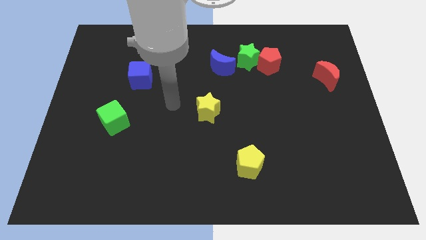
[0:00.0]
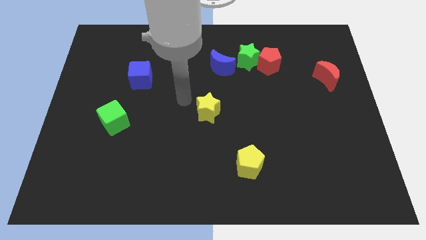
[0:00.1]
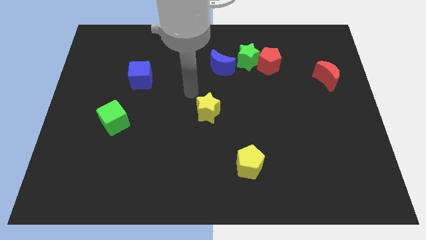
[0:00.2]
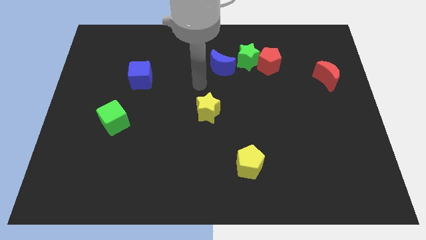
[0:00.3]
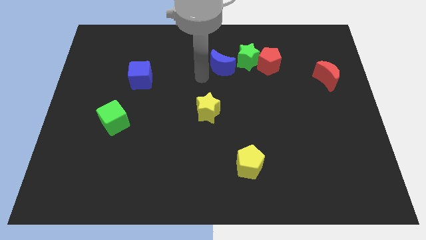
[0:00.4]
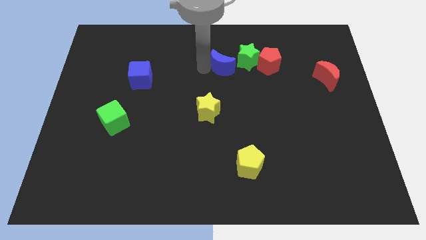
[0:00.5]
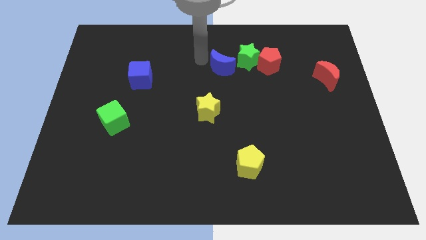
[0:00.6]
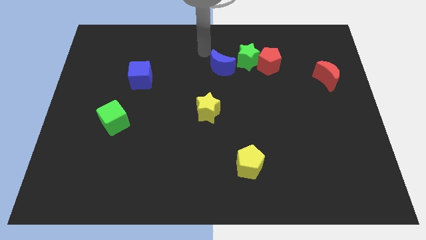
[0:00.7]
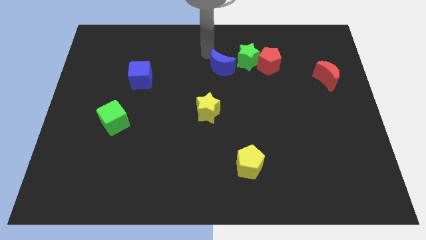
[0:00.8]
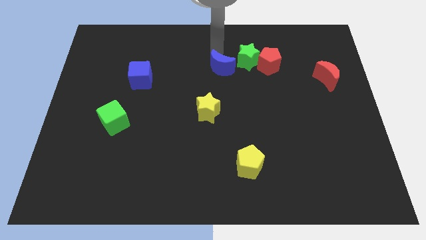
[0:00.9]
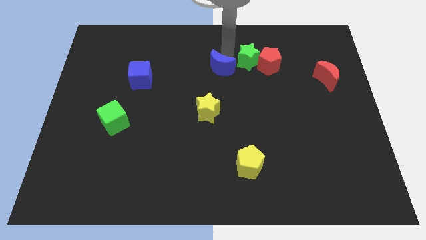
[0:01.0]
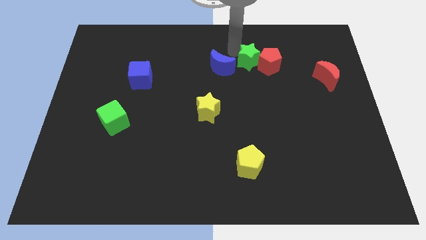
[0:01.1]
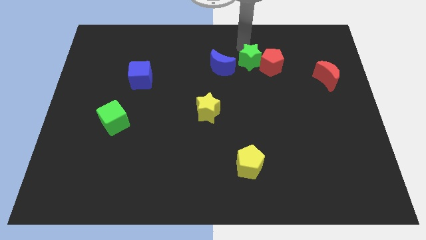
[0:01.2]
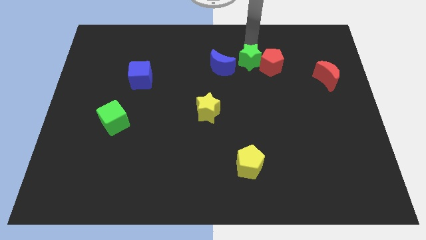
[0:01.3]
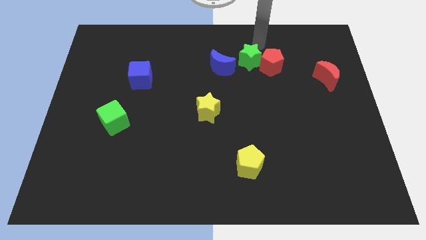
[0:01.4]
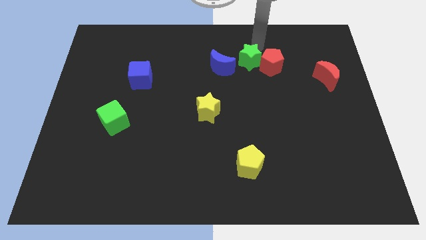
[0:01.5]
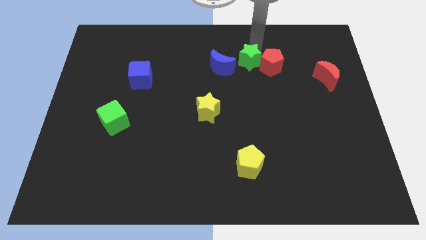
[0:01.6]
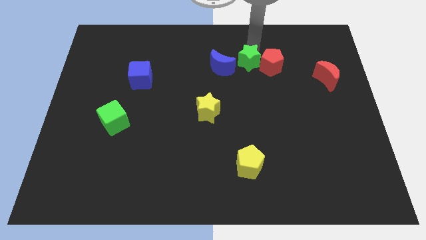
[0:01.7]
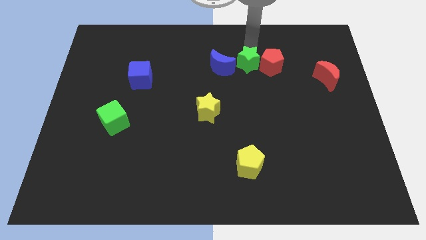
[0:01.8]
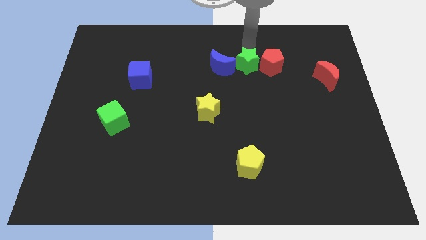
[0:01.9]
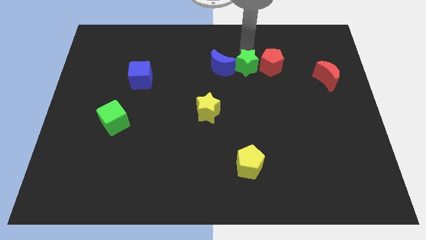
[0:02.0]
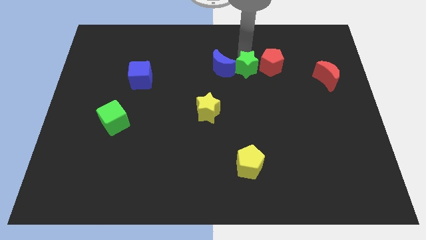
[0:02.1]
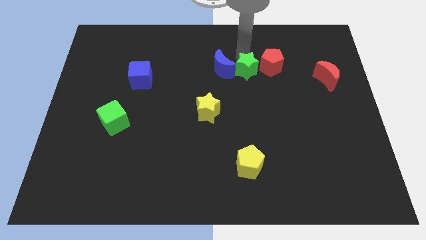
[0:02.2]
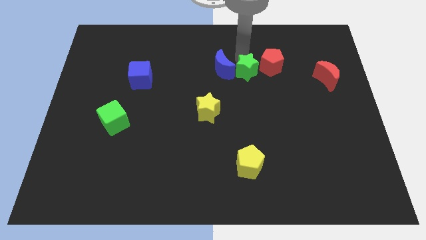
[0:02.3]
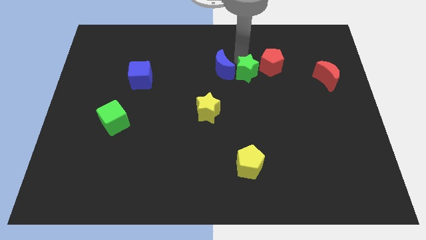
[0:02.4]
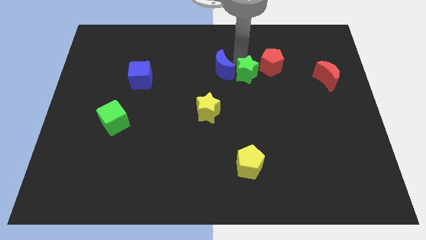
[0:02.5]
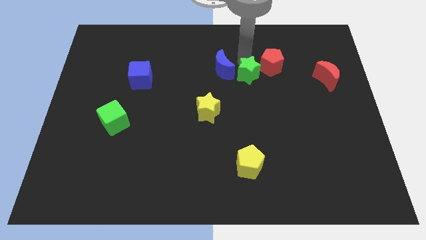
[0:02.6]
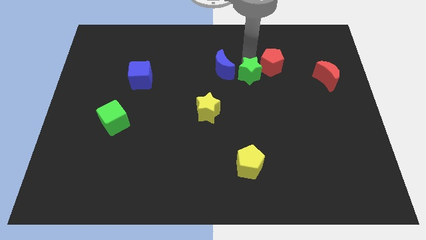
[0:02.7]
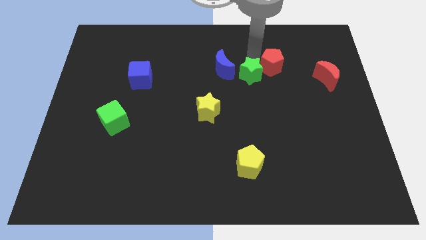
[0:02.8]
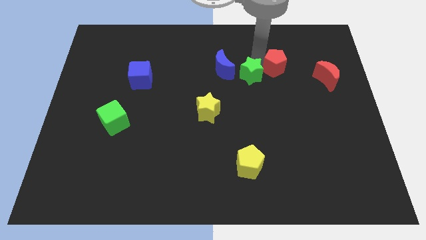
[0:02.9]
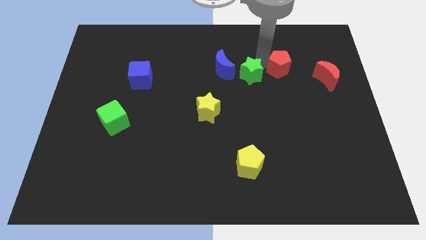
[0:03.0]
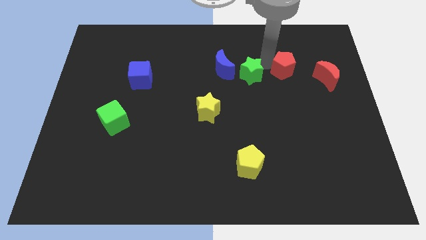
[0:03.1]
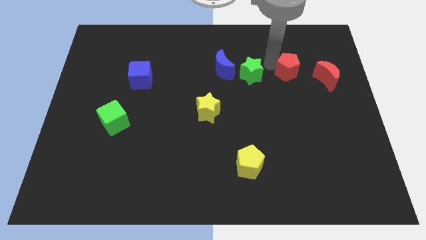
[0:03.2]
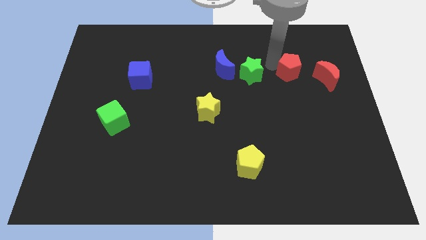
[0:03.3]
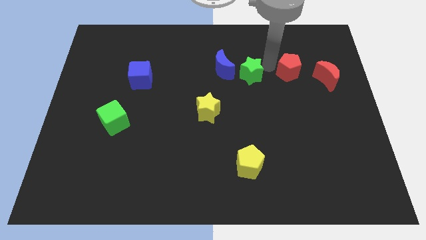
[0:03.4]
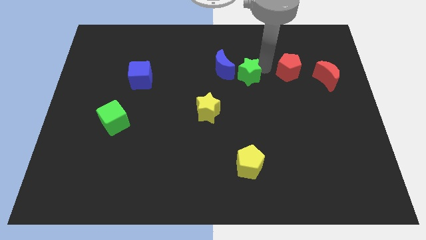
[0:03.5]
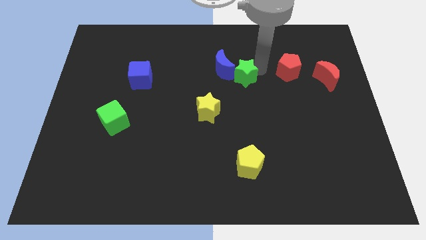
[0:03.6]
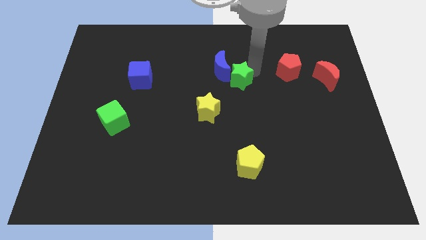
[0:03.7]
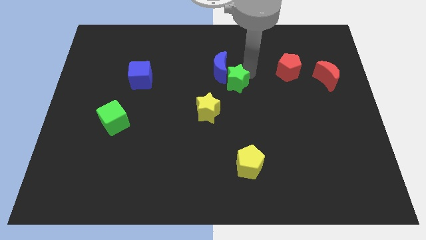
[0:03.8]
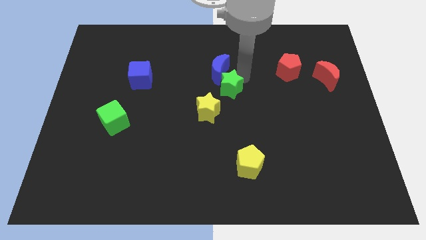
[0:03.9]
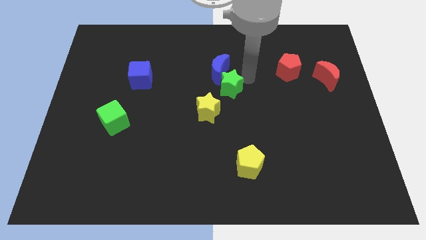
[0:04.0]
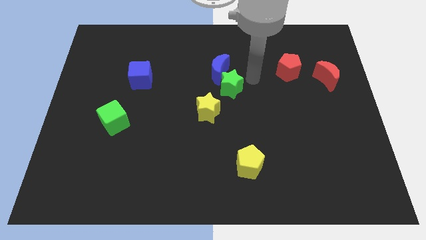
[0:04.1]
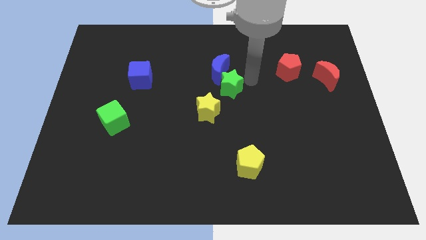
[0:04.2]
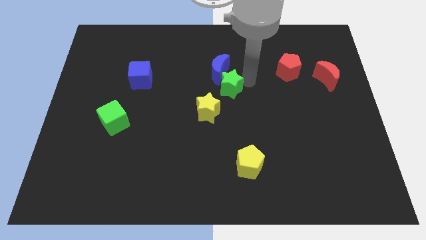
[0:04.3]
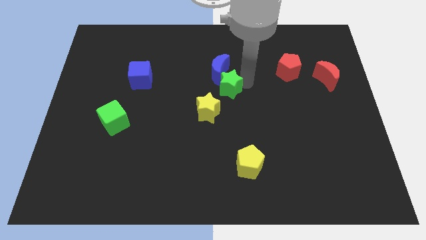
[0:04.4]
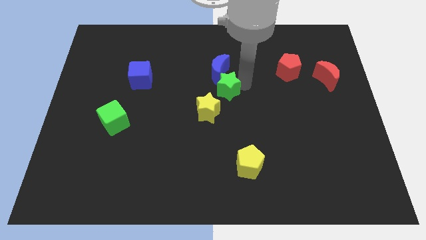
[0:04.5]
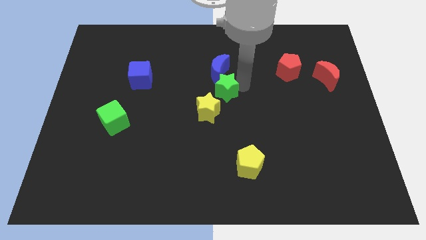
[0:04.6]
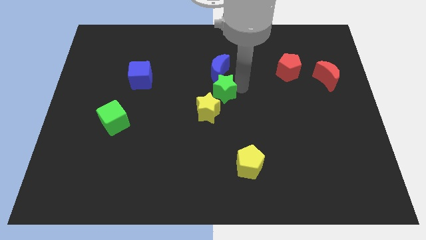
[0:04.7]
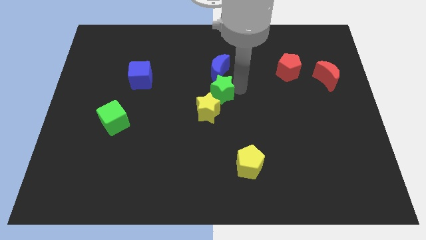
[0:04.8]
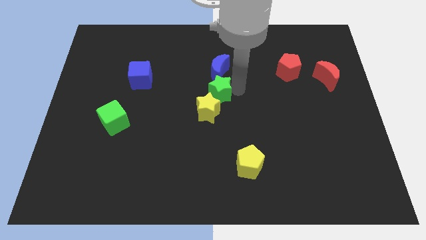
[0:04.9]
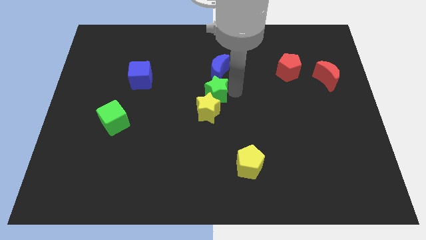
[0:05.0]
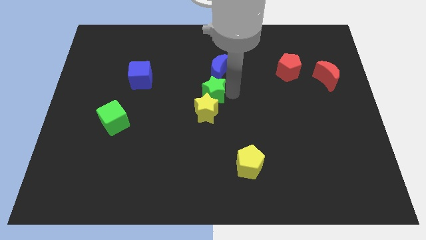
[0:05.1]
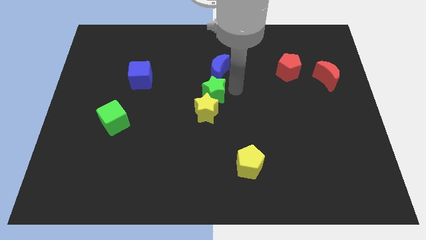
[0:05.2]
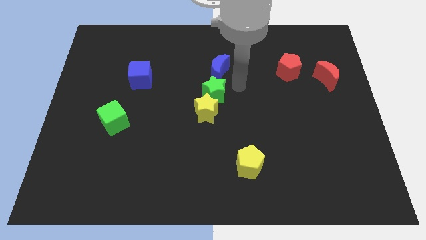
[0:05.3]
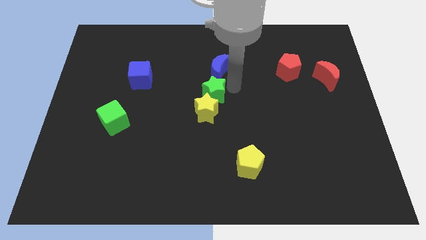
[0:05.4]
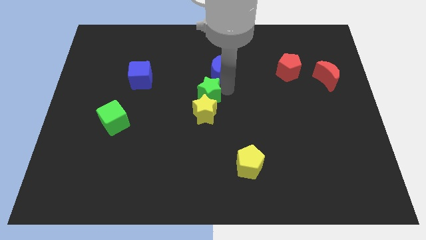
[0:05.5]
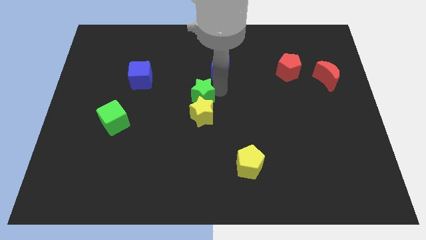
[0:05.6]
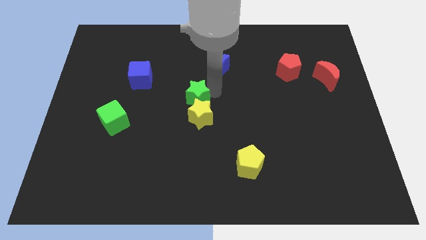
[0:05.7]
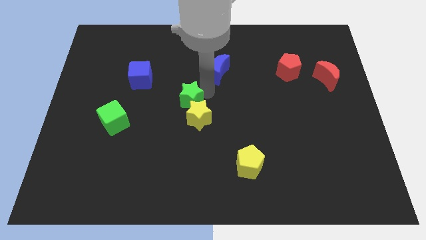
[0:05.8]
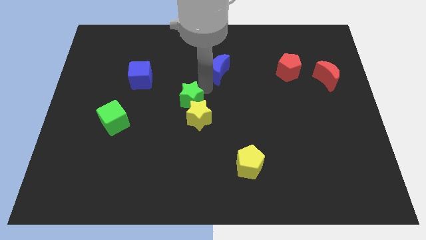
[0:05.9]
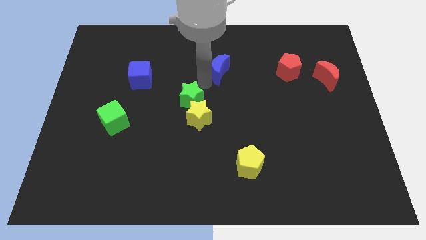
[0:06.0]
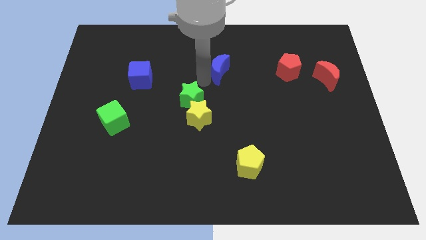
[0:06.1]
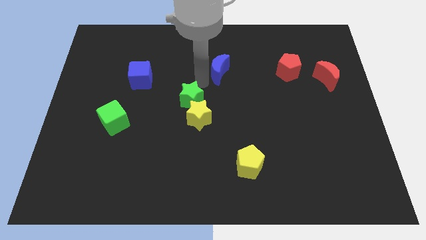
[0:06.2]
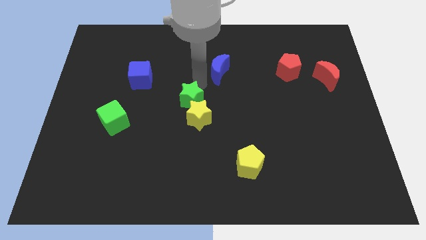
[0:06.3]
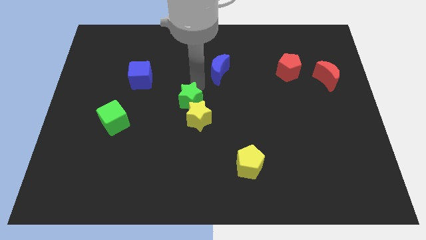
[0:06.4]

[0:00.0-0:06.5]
slide the green star down and left

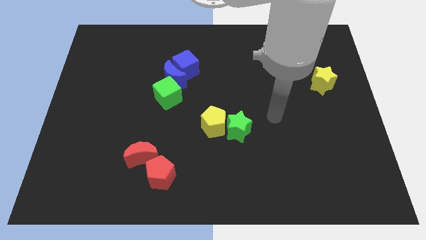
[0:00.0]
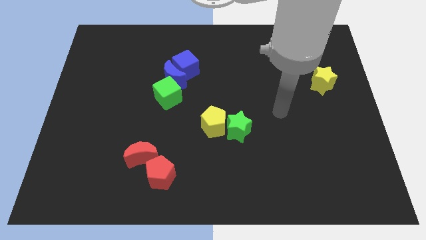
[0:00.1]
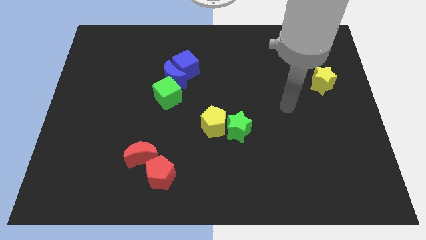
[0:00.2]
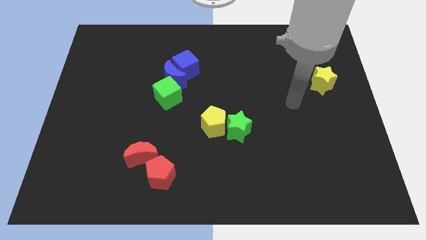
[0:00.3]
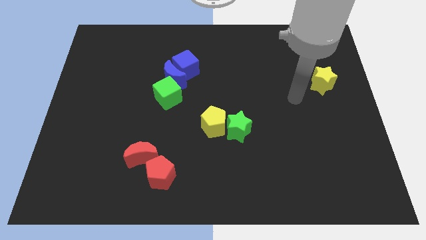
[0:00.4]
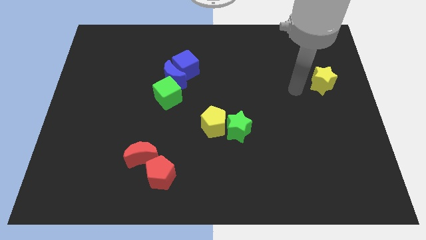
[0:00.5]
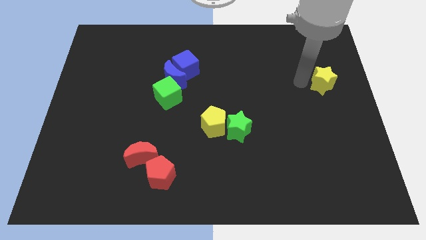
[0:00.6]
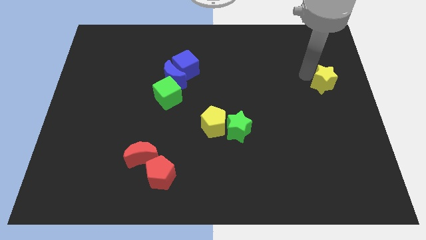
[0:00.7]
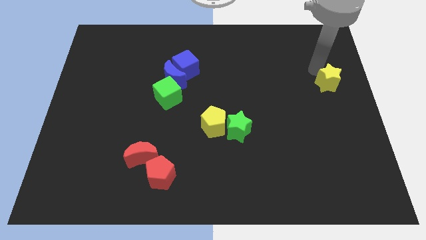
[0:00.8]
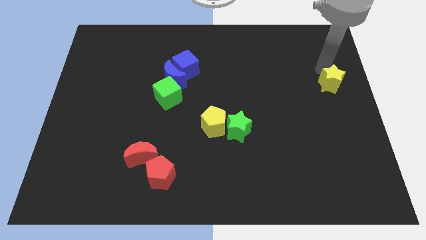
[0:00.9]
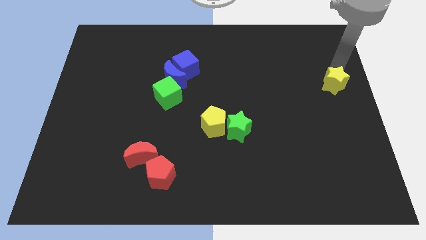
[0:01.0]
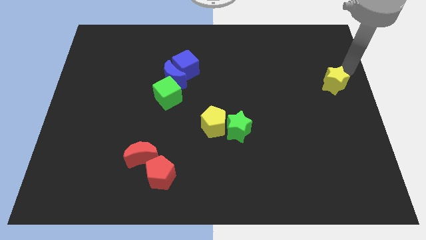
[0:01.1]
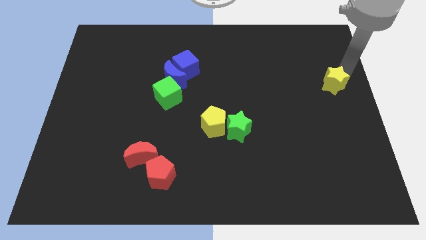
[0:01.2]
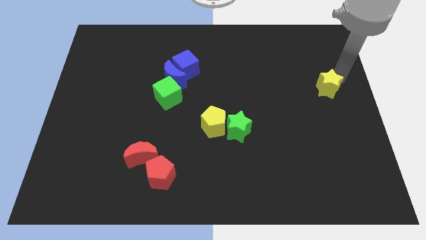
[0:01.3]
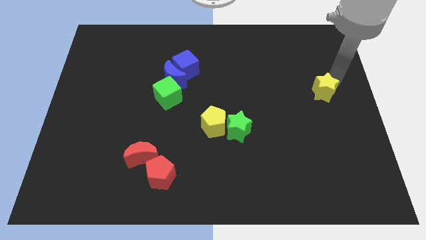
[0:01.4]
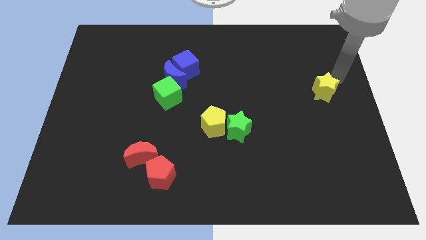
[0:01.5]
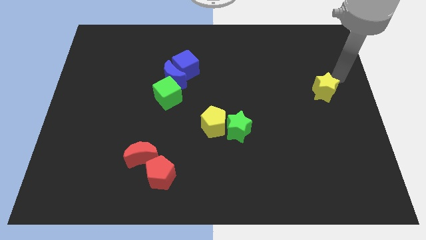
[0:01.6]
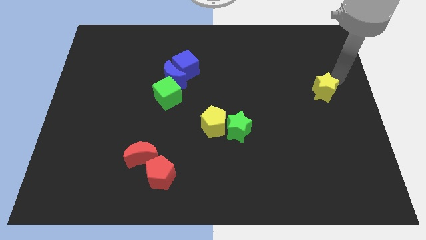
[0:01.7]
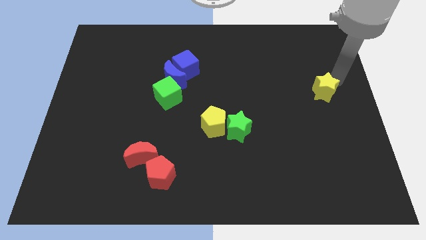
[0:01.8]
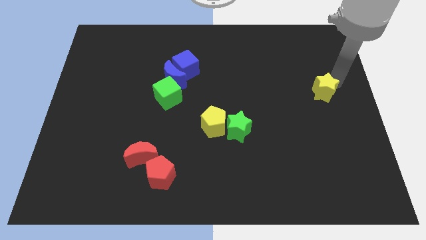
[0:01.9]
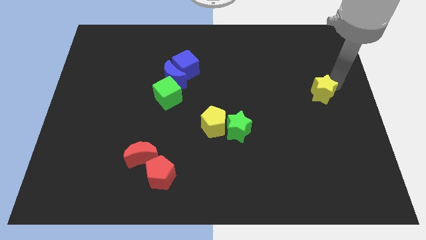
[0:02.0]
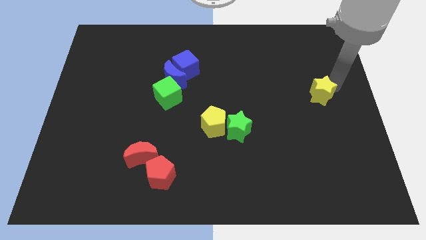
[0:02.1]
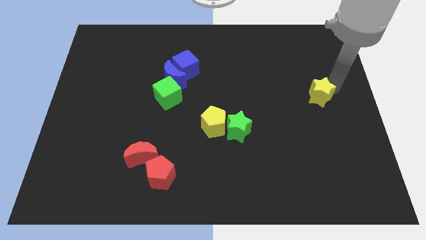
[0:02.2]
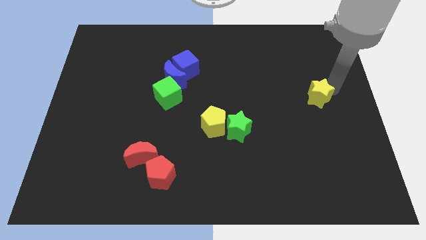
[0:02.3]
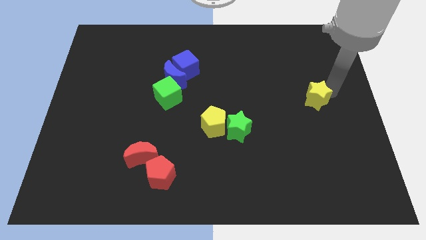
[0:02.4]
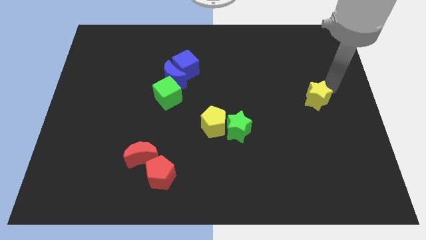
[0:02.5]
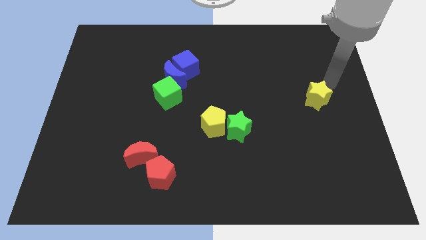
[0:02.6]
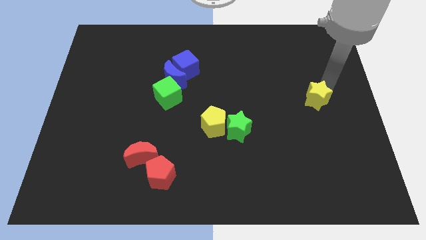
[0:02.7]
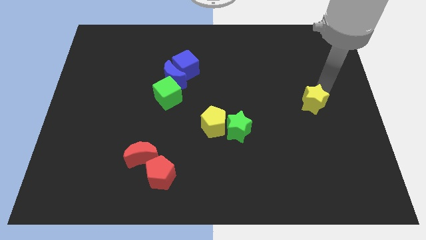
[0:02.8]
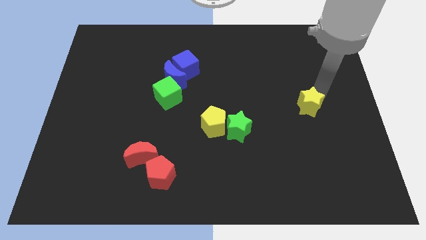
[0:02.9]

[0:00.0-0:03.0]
slightly slide the yellow star diagonally down and left
